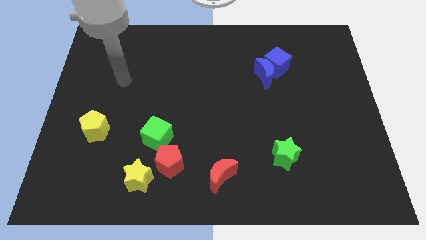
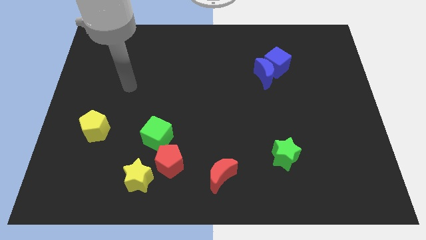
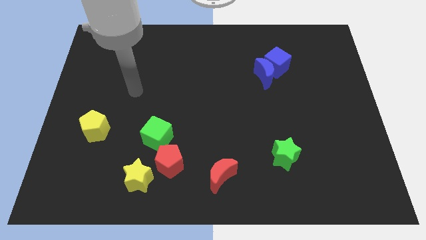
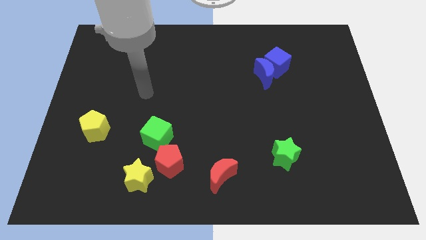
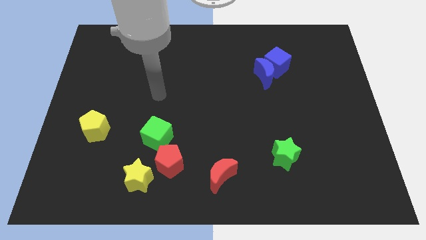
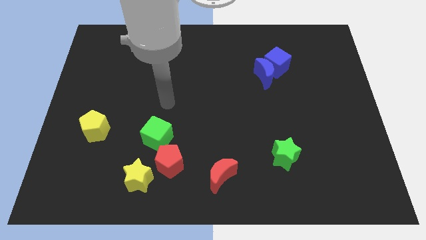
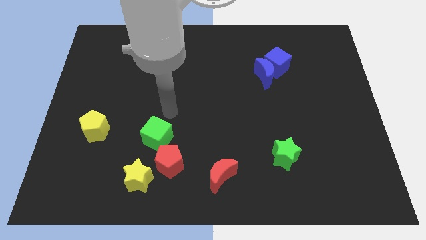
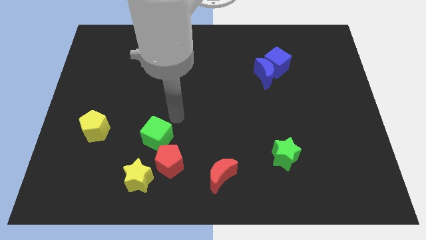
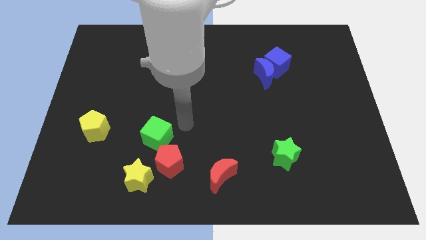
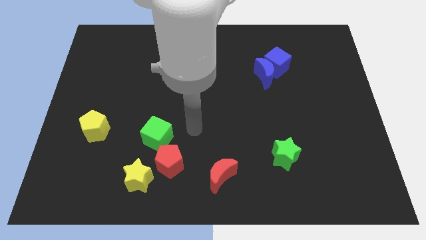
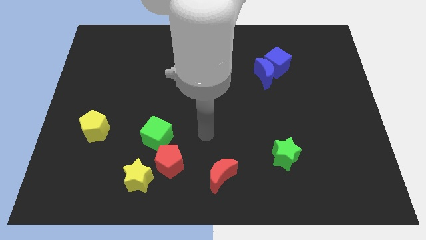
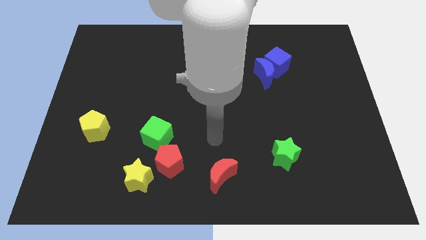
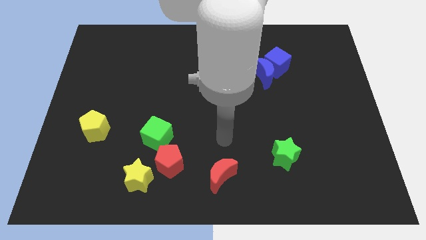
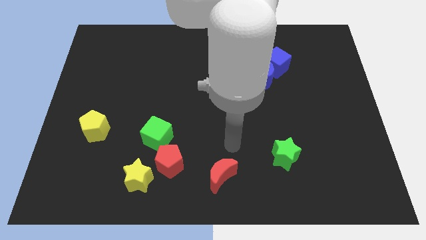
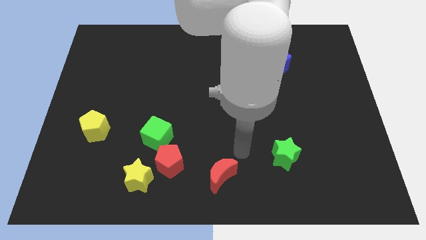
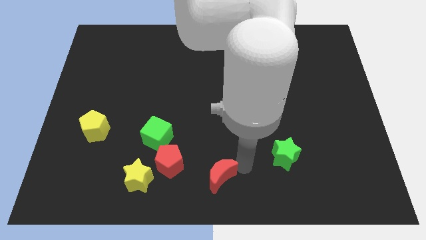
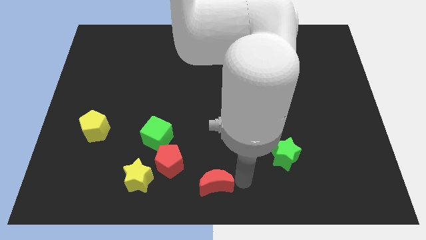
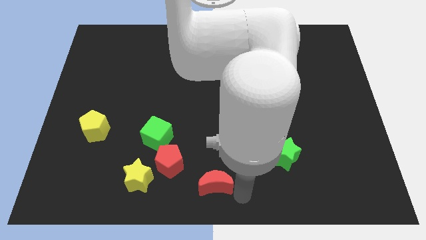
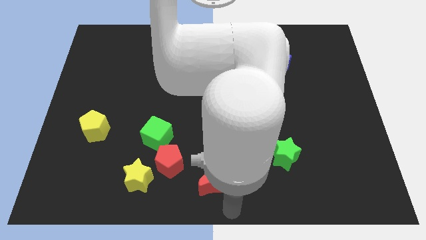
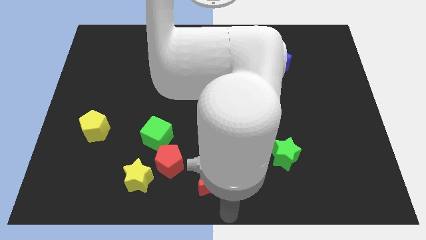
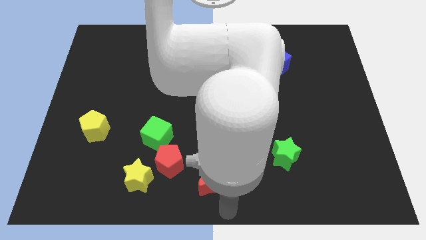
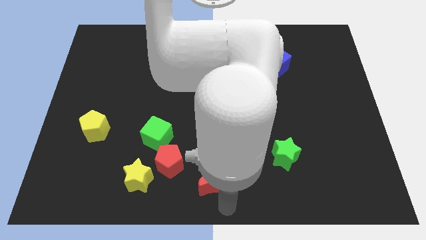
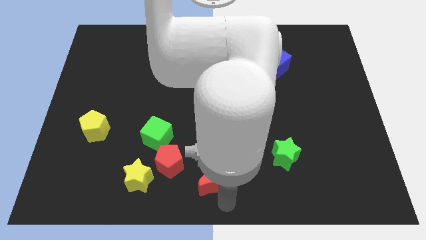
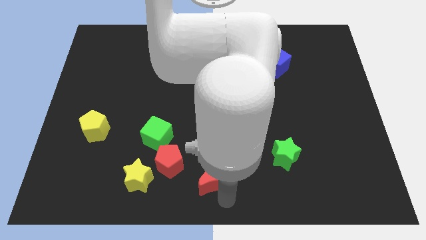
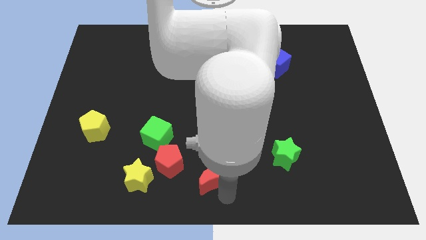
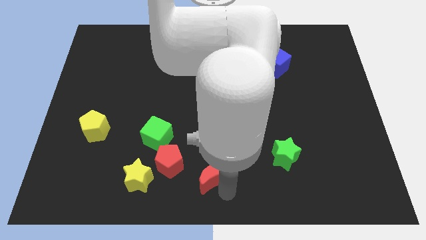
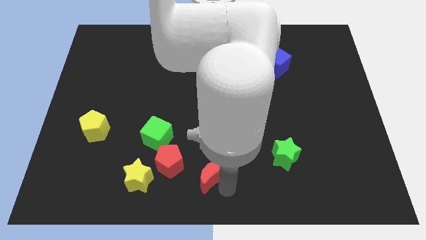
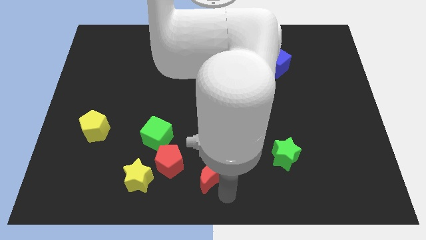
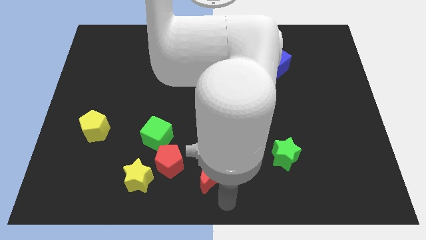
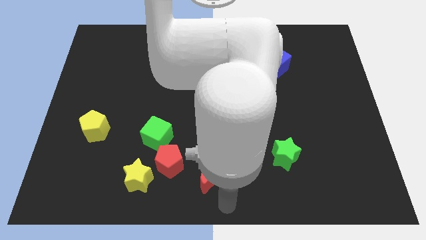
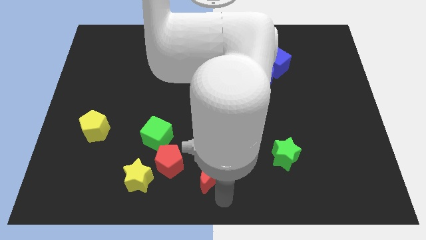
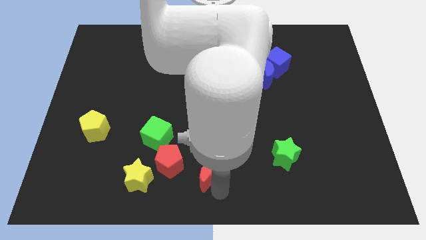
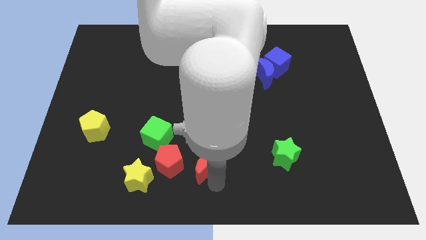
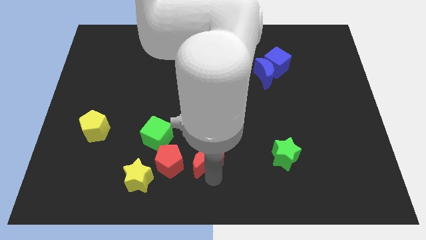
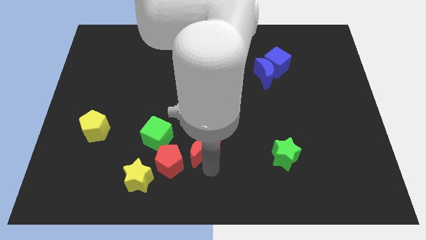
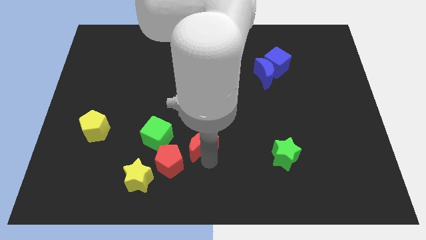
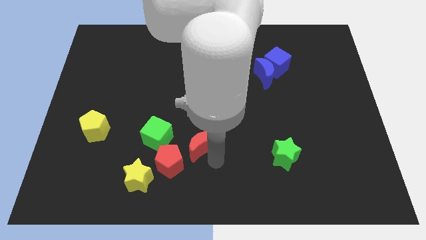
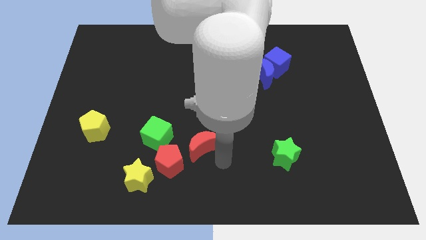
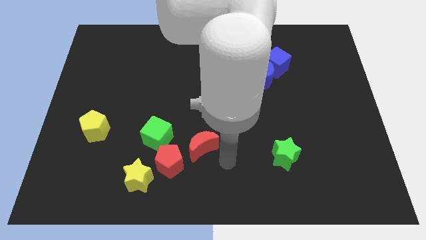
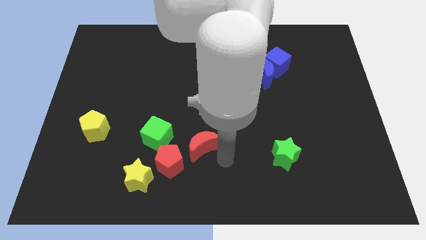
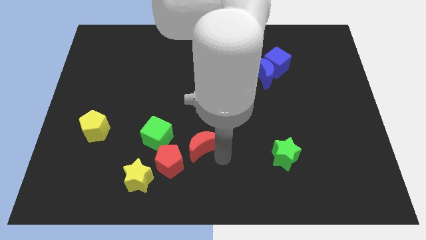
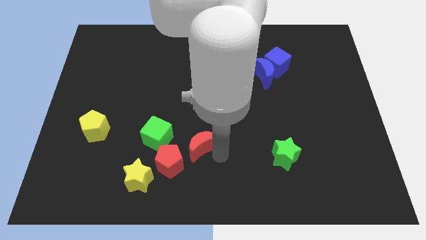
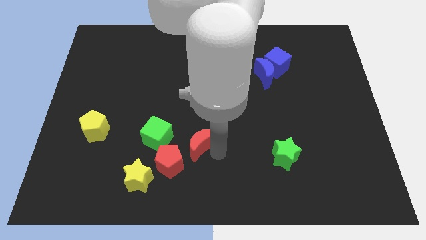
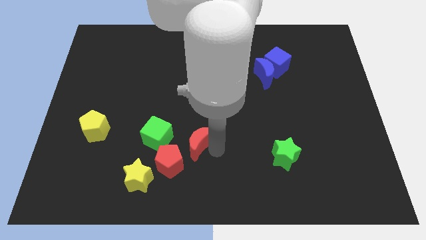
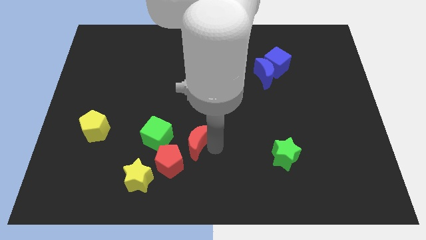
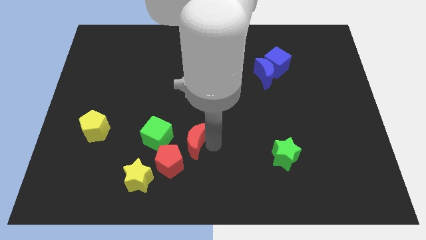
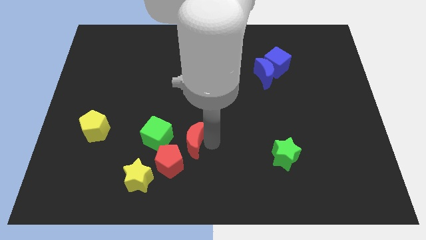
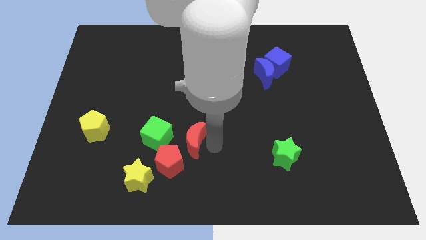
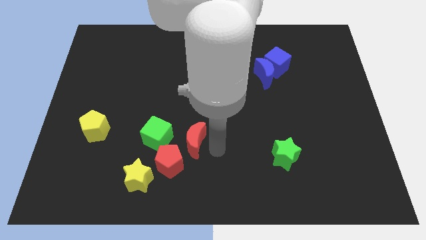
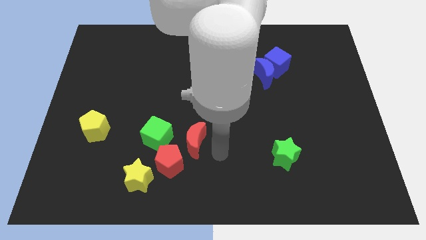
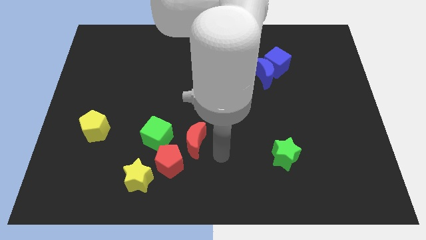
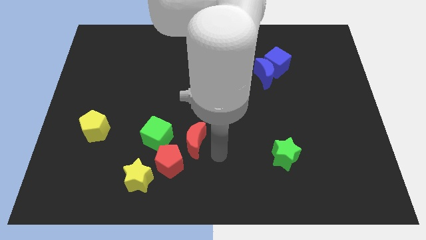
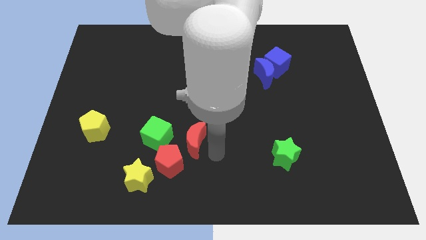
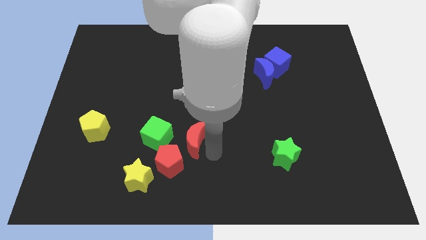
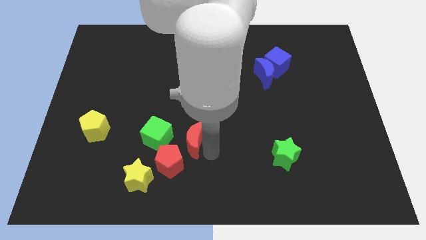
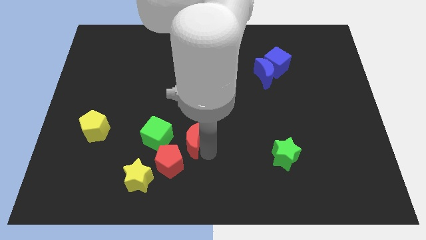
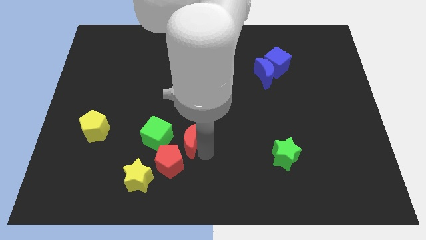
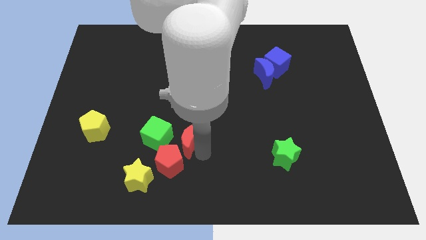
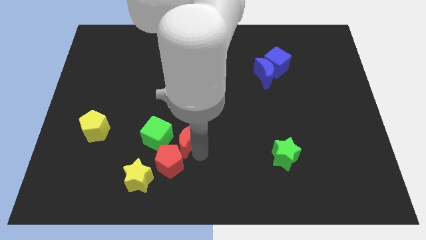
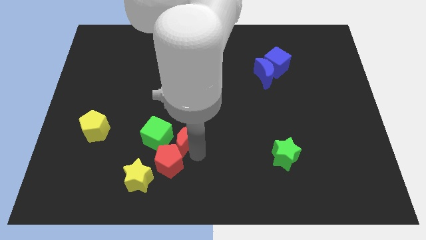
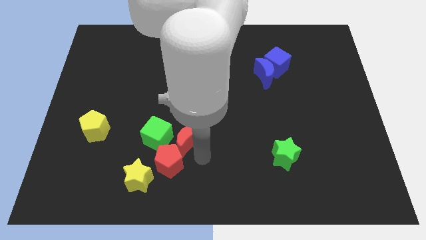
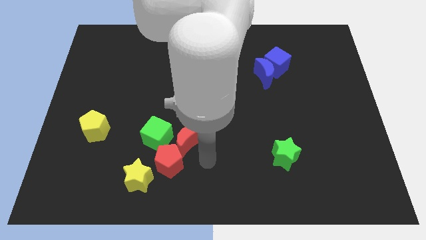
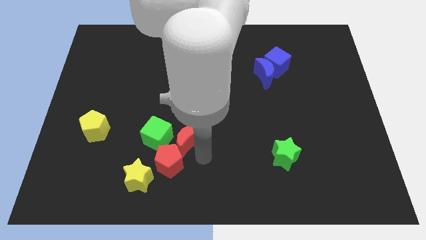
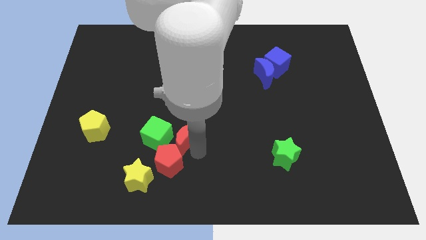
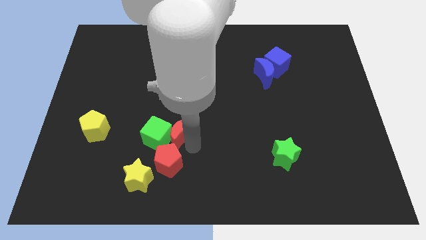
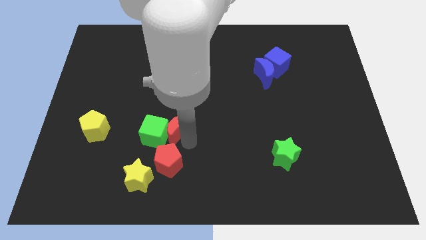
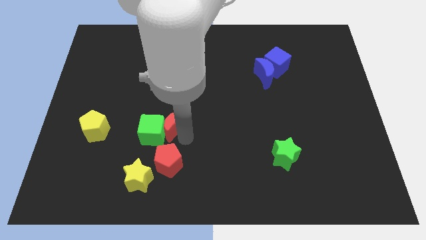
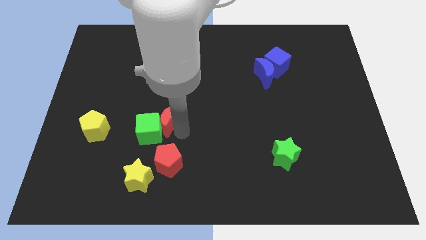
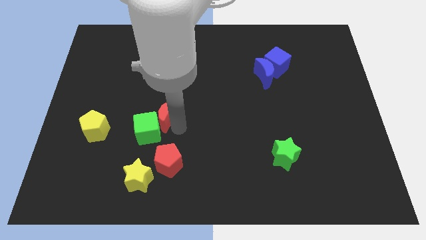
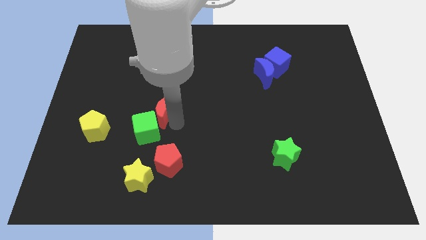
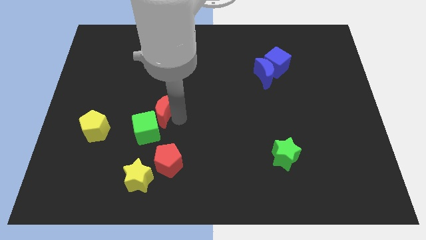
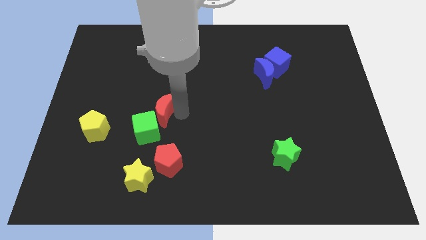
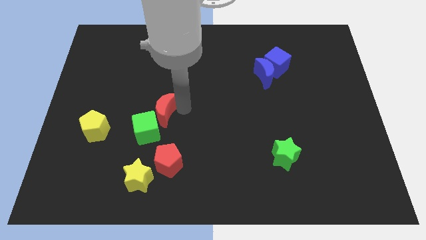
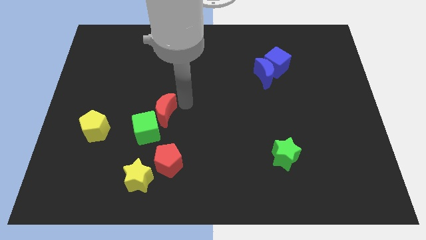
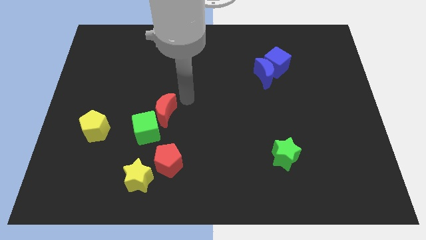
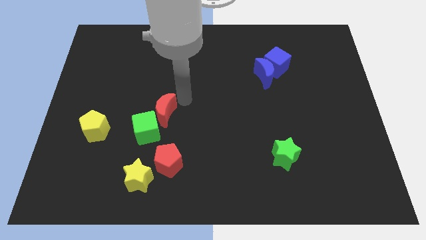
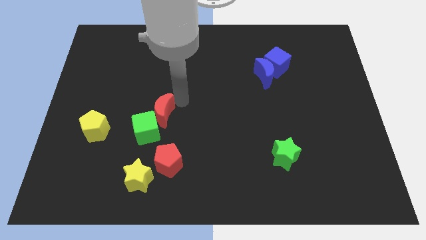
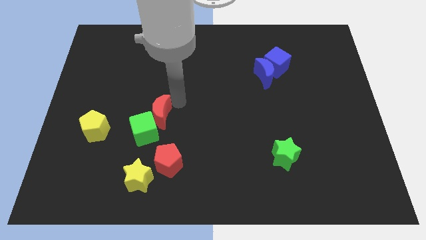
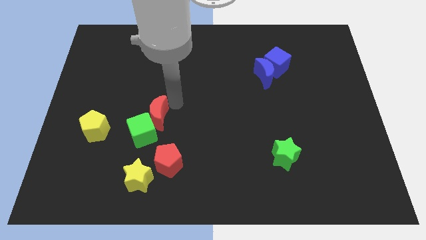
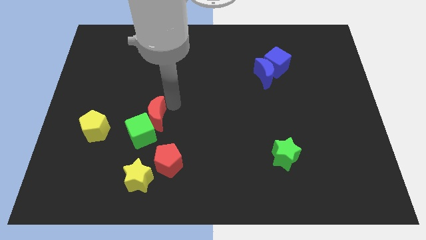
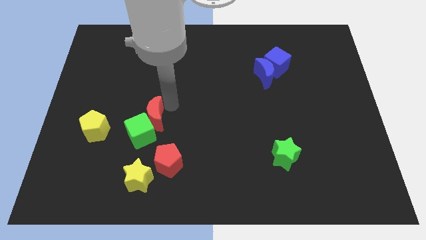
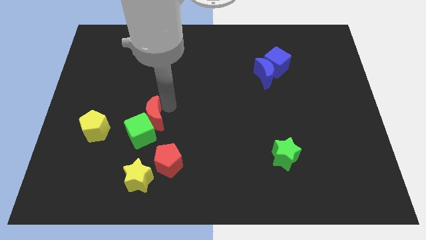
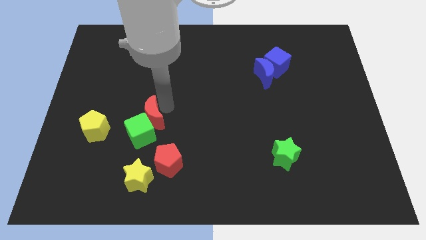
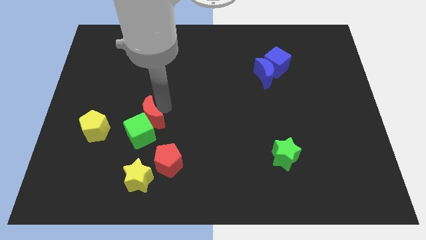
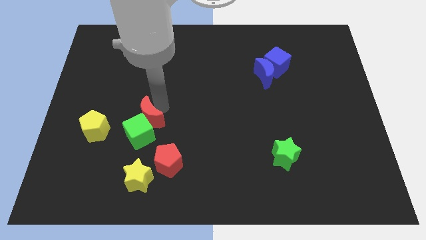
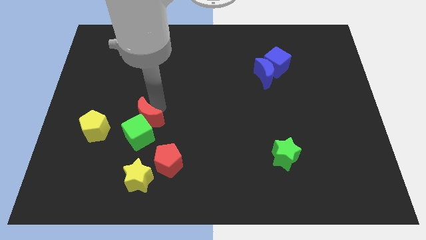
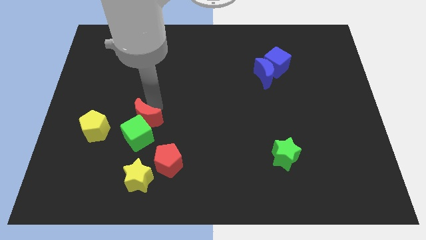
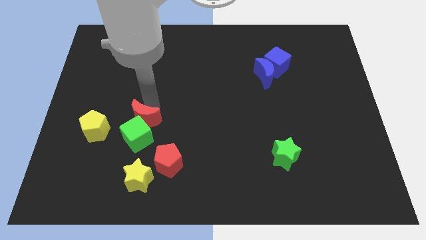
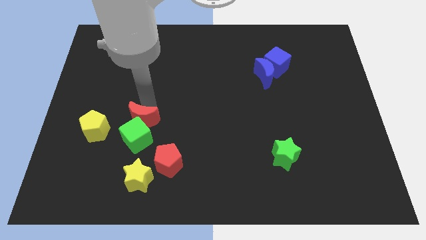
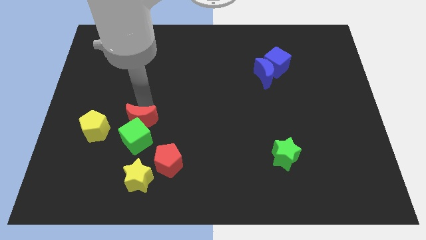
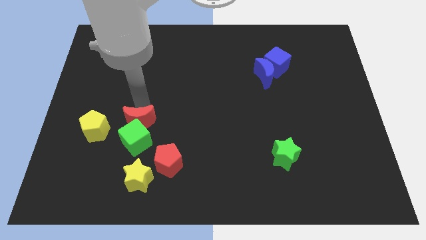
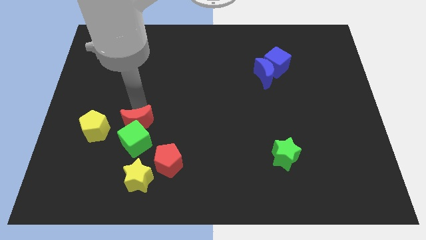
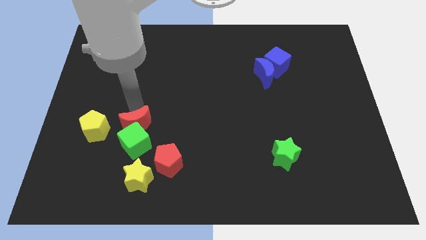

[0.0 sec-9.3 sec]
push the red moon to the top left side of the red pentagon
